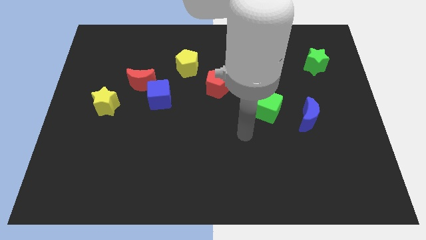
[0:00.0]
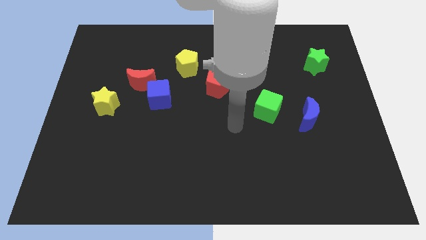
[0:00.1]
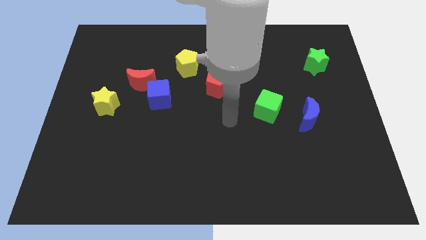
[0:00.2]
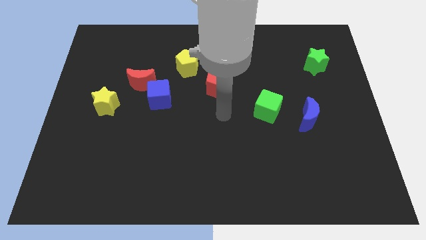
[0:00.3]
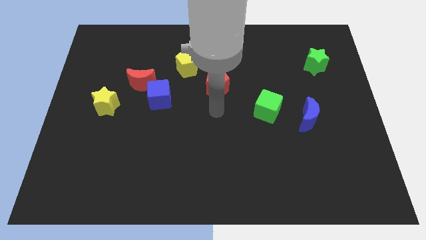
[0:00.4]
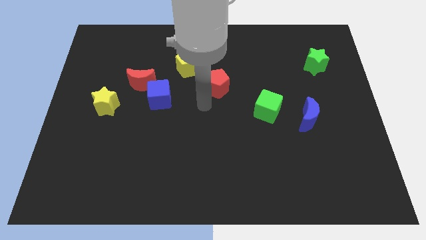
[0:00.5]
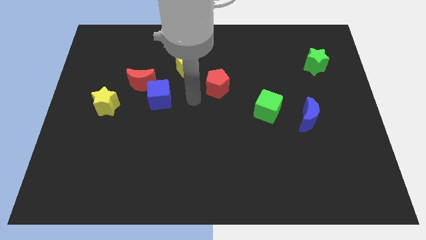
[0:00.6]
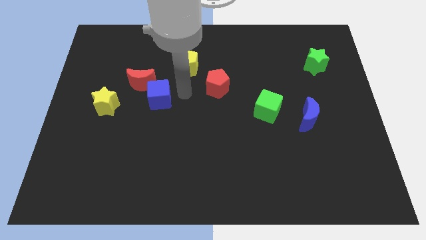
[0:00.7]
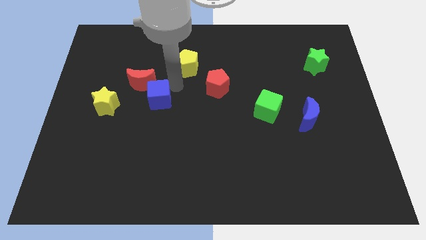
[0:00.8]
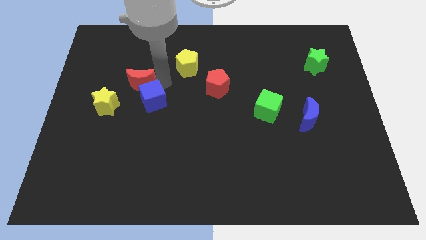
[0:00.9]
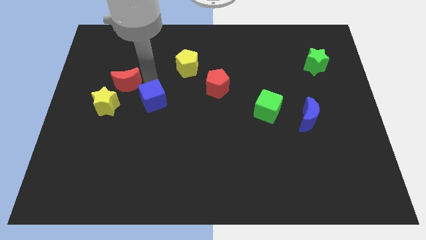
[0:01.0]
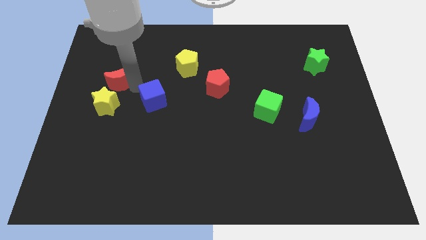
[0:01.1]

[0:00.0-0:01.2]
pull the blue cube apart from the red moon

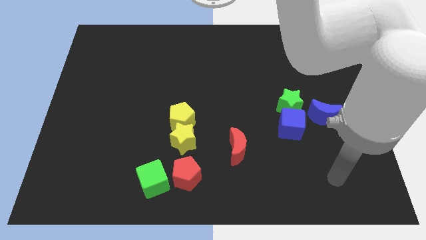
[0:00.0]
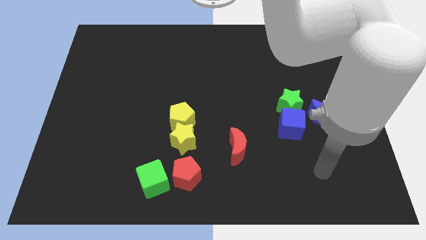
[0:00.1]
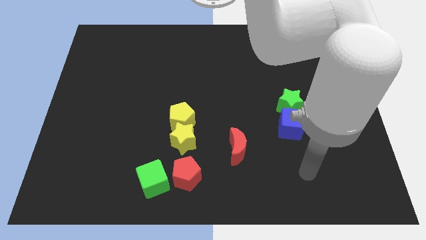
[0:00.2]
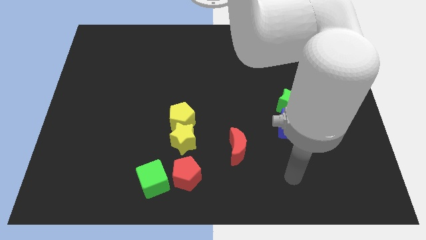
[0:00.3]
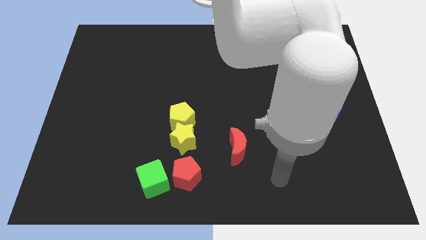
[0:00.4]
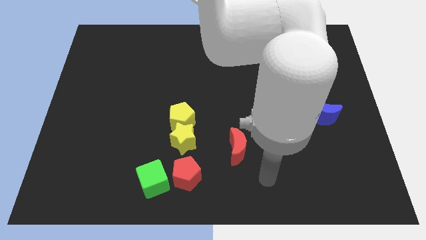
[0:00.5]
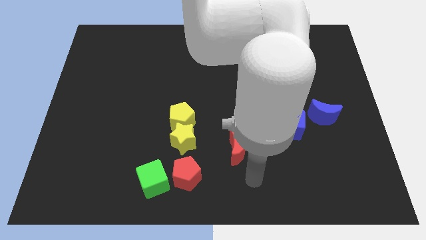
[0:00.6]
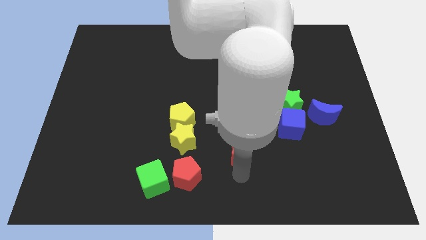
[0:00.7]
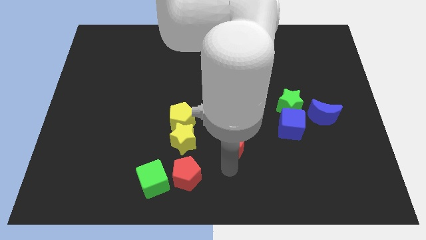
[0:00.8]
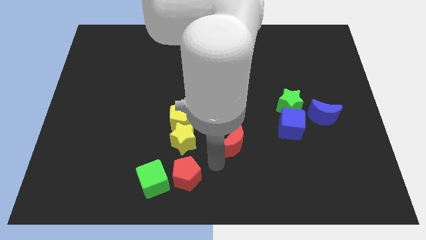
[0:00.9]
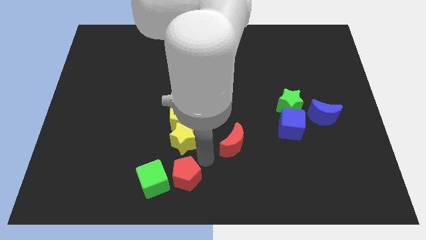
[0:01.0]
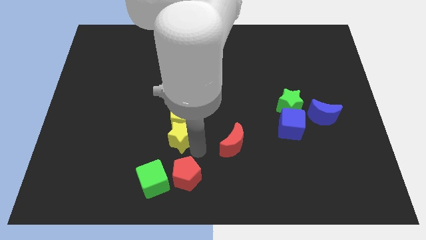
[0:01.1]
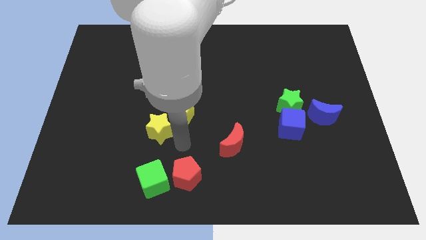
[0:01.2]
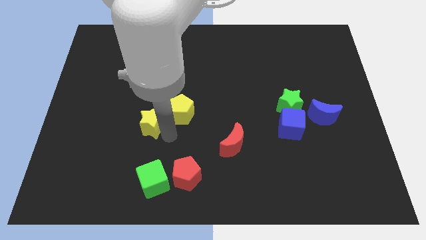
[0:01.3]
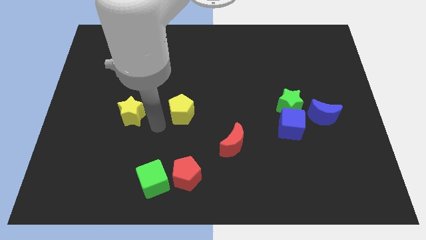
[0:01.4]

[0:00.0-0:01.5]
separate the yellow pentagon from the yellow star

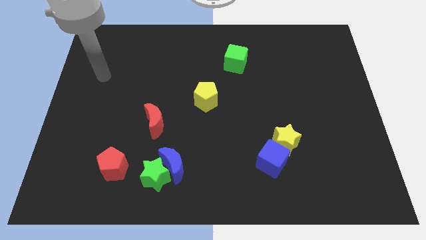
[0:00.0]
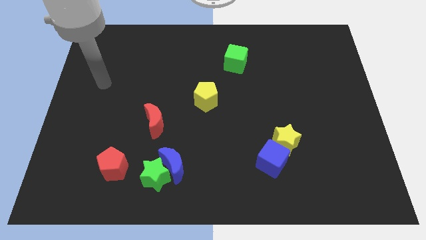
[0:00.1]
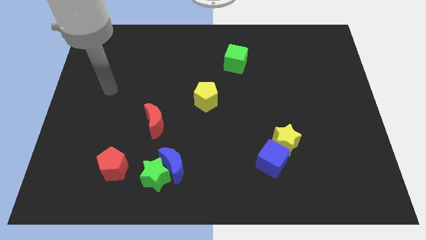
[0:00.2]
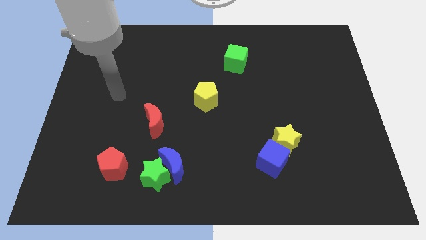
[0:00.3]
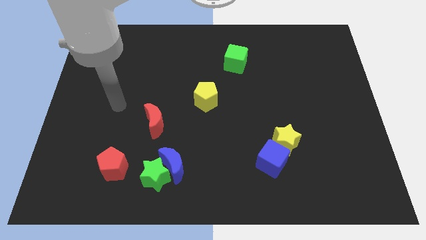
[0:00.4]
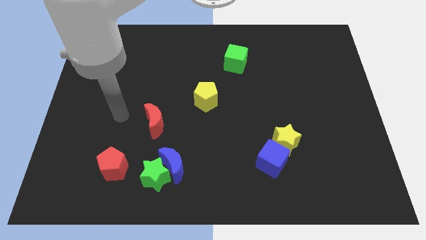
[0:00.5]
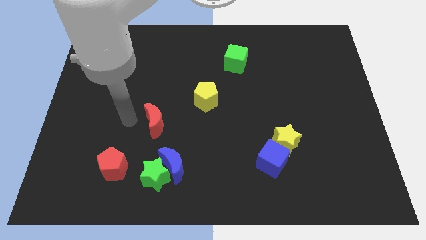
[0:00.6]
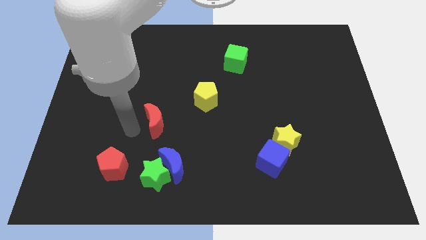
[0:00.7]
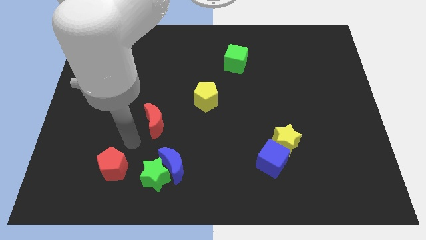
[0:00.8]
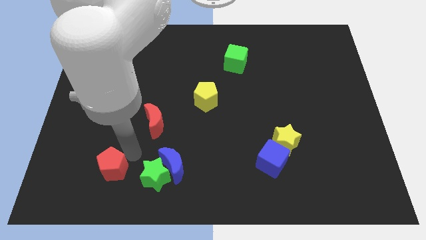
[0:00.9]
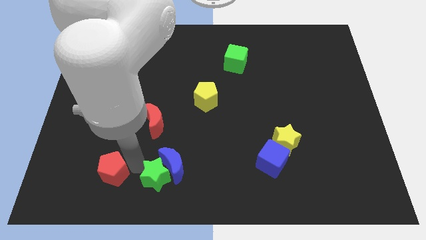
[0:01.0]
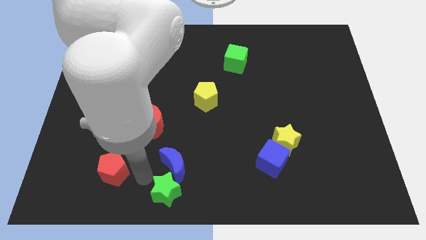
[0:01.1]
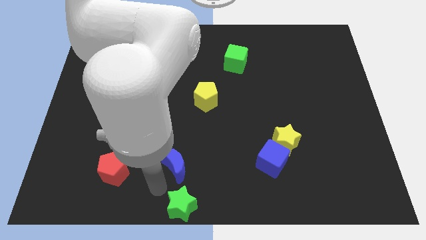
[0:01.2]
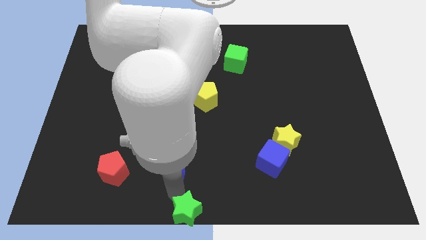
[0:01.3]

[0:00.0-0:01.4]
pull the blue moon apart from the green star

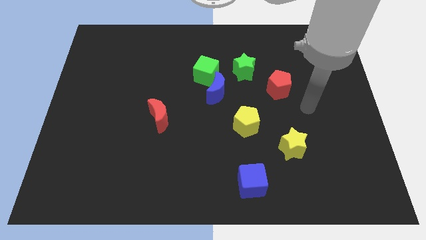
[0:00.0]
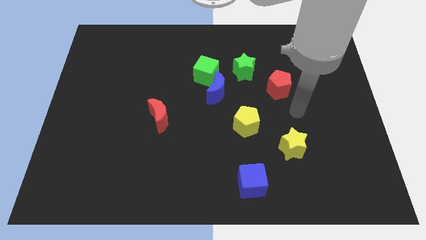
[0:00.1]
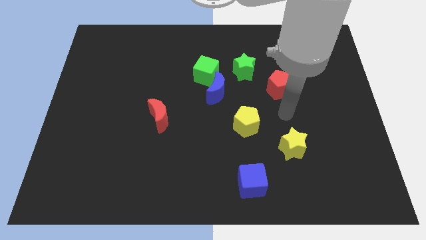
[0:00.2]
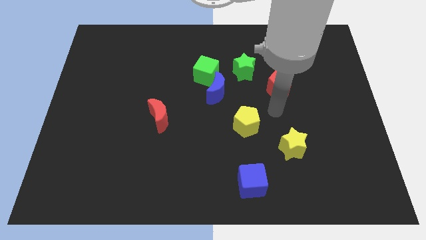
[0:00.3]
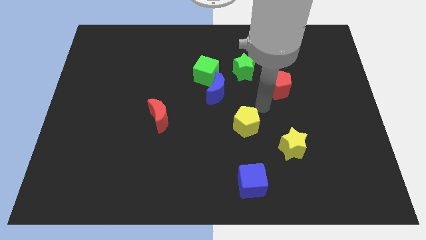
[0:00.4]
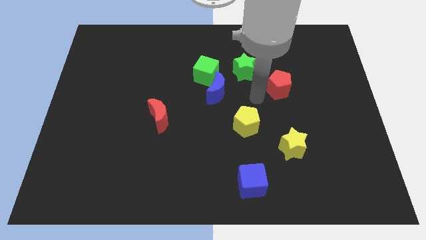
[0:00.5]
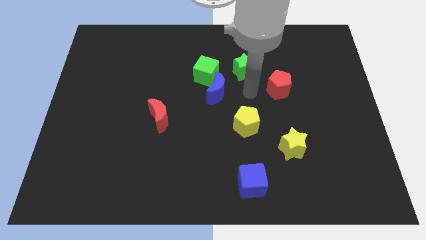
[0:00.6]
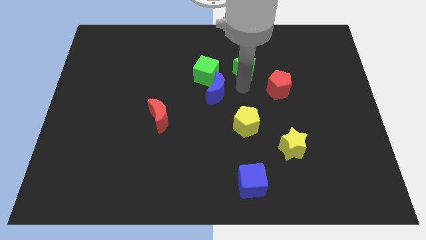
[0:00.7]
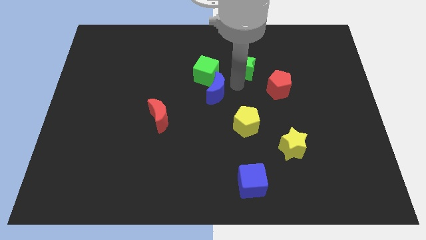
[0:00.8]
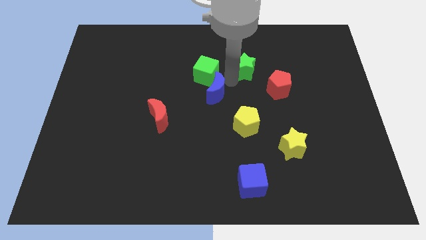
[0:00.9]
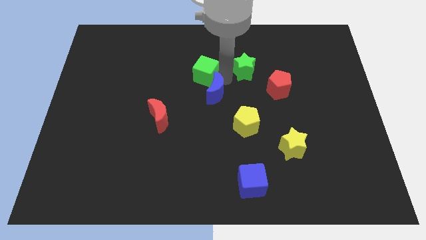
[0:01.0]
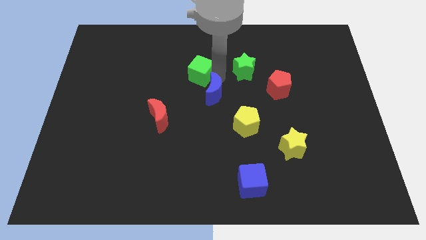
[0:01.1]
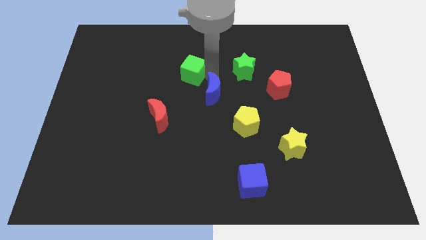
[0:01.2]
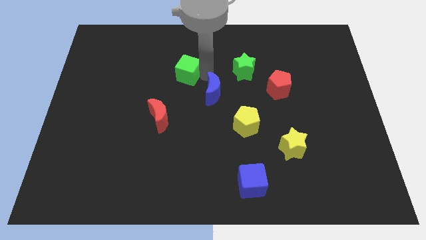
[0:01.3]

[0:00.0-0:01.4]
pull the green cube apart from the blue moon and green star

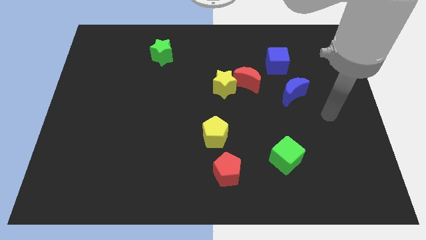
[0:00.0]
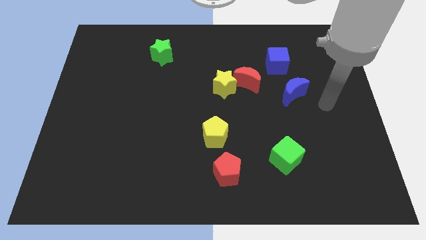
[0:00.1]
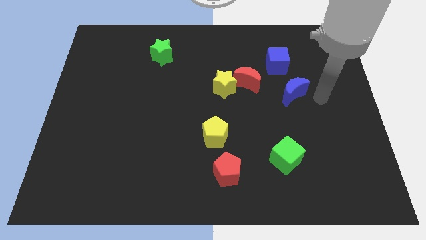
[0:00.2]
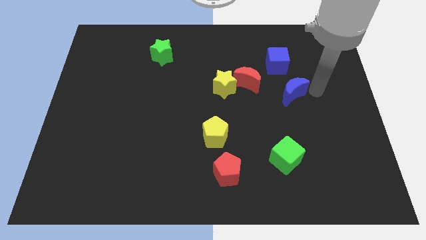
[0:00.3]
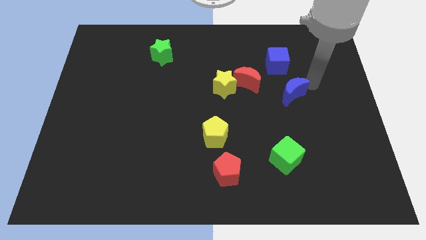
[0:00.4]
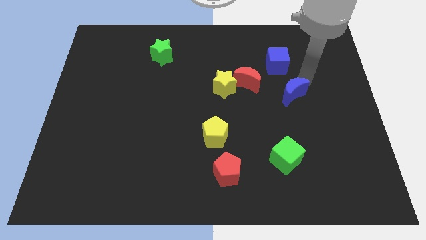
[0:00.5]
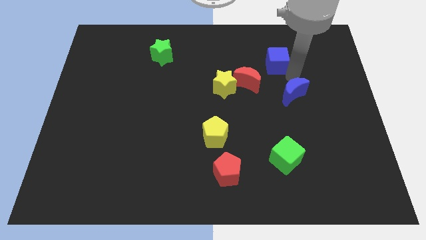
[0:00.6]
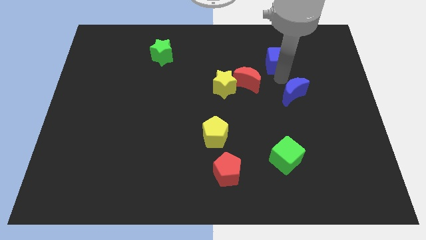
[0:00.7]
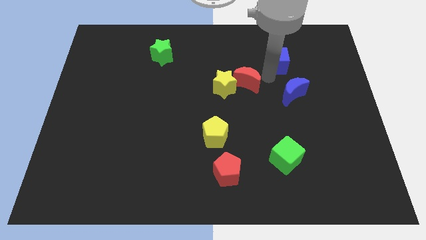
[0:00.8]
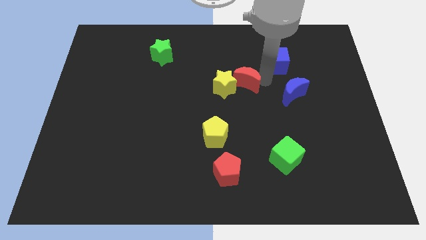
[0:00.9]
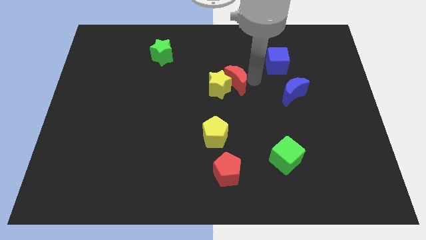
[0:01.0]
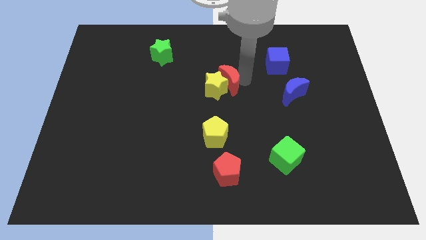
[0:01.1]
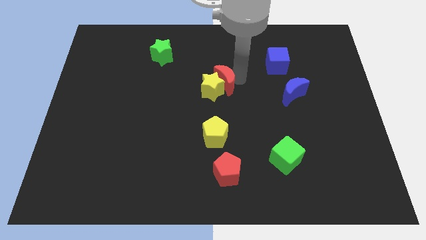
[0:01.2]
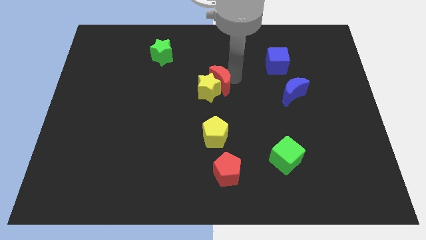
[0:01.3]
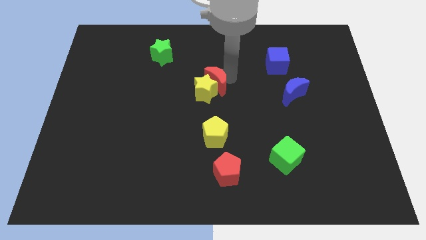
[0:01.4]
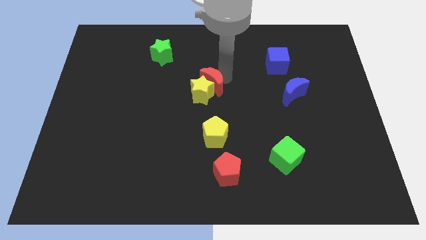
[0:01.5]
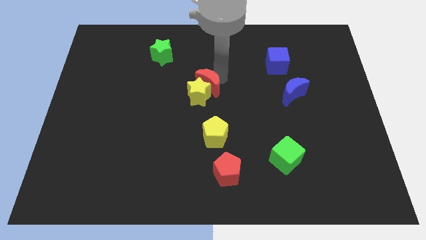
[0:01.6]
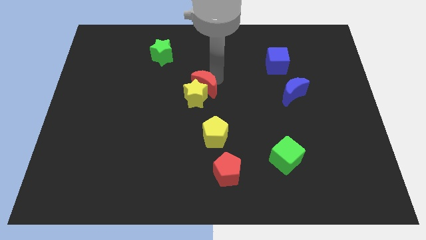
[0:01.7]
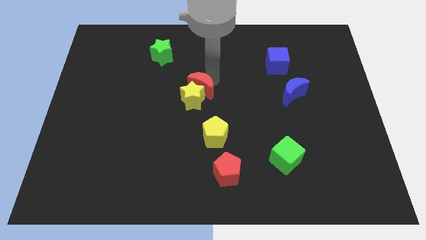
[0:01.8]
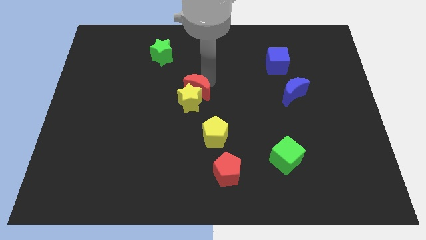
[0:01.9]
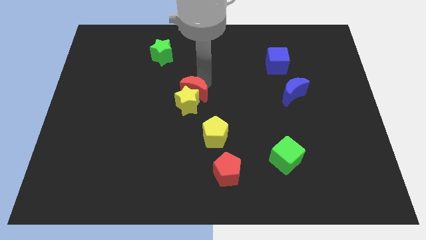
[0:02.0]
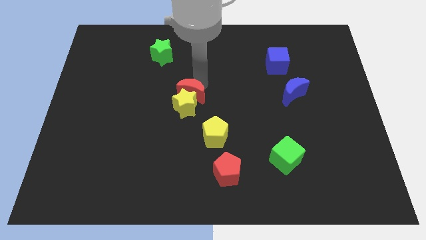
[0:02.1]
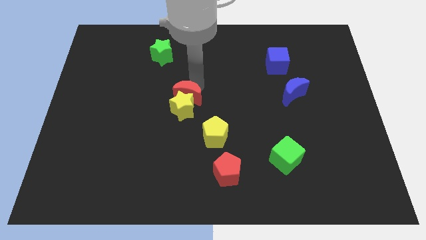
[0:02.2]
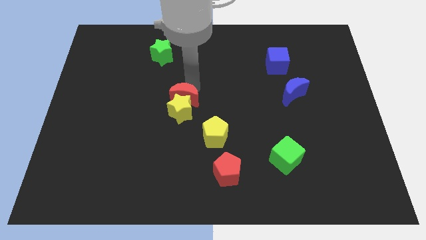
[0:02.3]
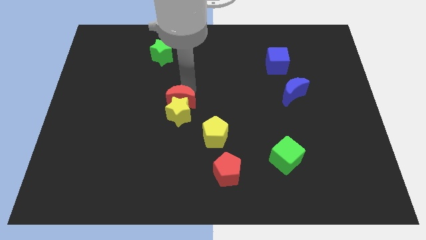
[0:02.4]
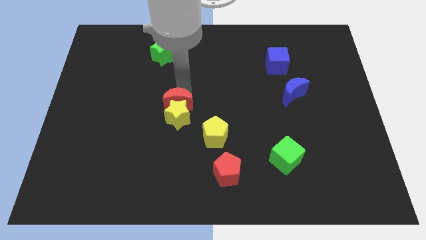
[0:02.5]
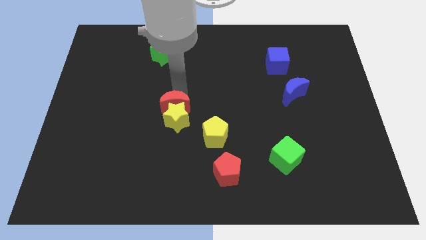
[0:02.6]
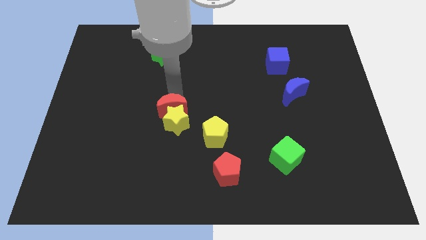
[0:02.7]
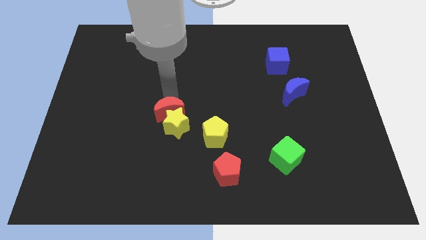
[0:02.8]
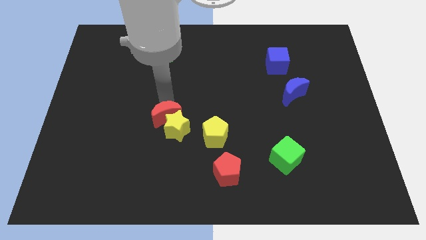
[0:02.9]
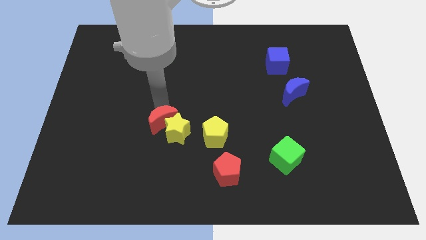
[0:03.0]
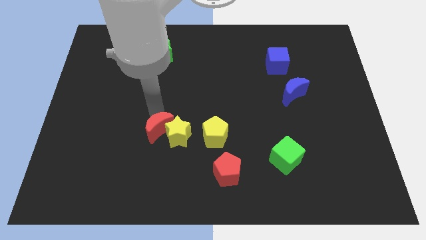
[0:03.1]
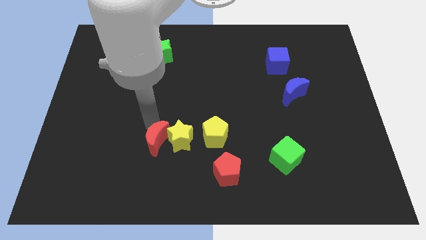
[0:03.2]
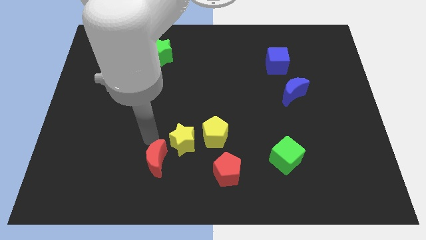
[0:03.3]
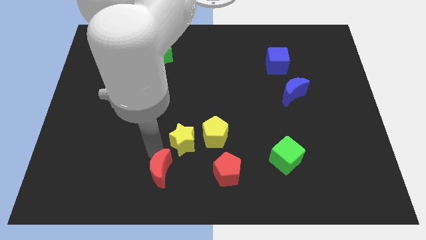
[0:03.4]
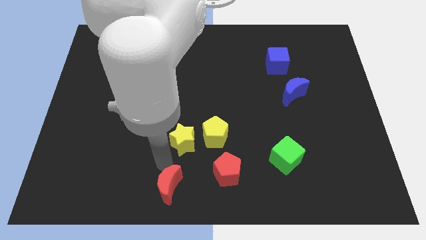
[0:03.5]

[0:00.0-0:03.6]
move the yellow star away from the red moon

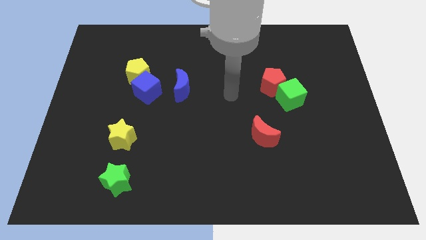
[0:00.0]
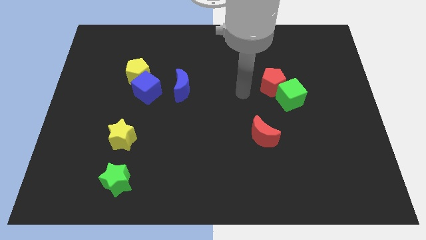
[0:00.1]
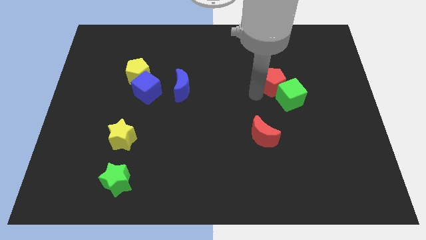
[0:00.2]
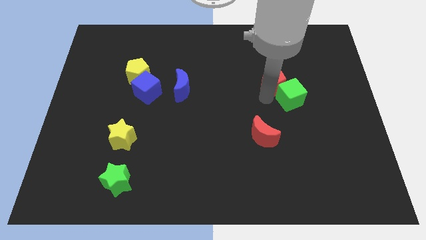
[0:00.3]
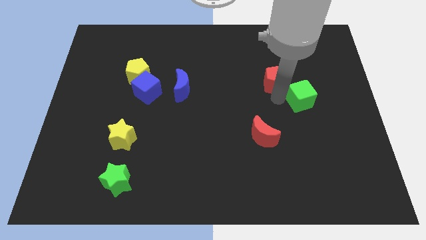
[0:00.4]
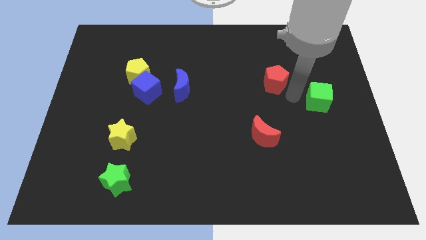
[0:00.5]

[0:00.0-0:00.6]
separate the red pentagon from the green cube
